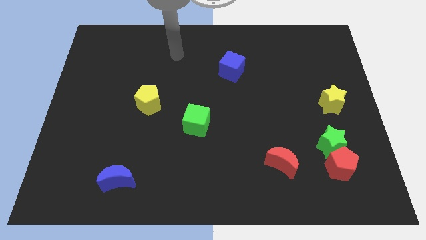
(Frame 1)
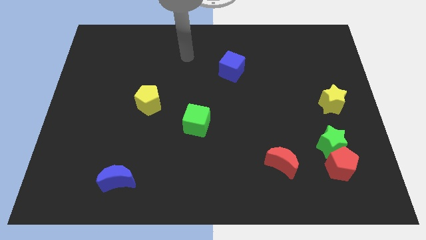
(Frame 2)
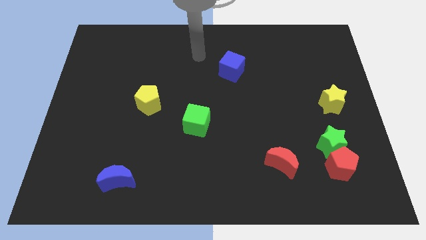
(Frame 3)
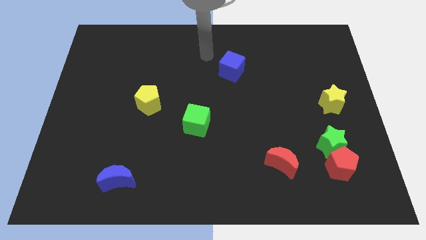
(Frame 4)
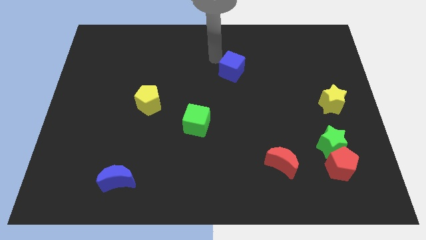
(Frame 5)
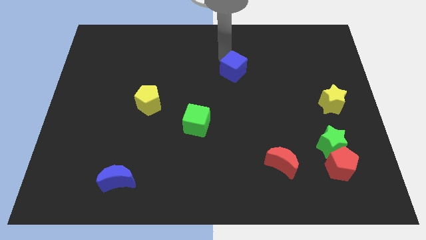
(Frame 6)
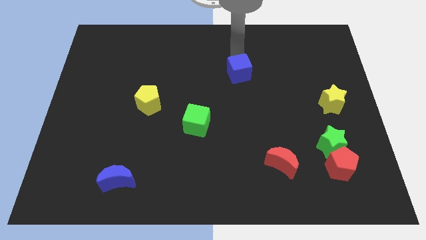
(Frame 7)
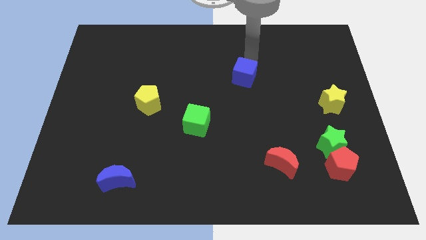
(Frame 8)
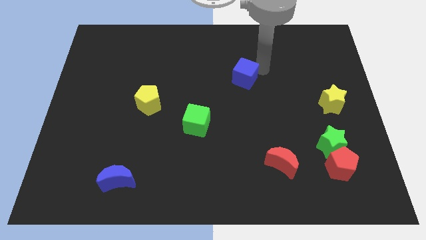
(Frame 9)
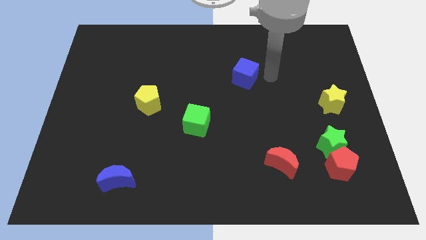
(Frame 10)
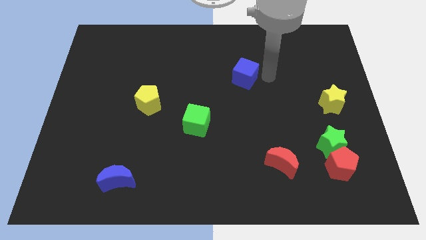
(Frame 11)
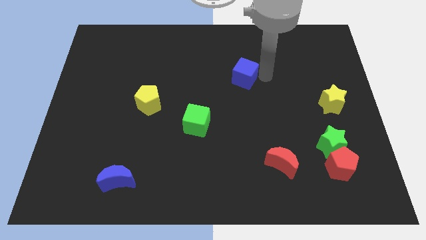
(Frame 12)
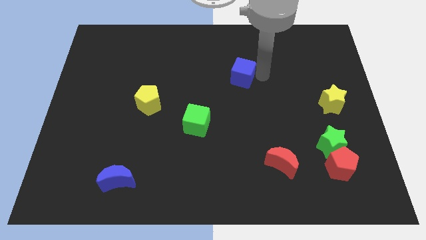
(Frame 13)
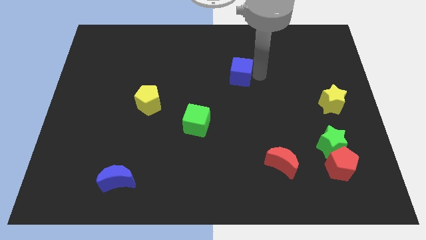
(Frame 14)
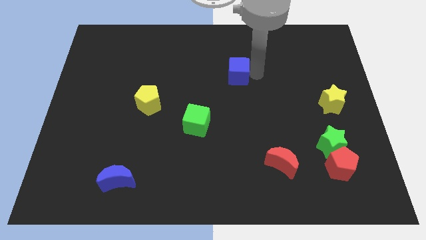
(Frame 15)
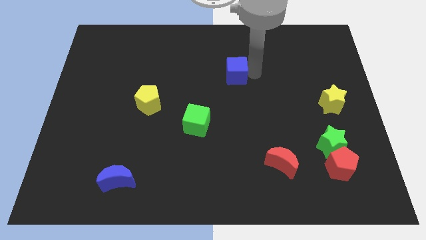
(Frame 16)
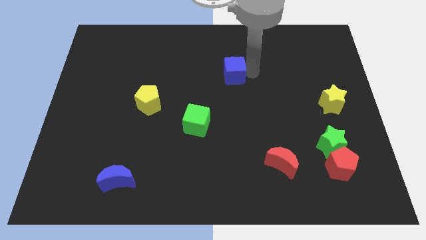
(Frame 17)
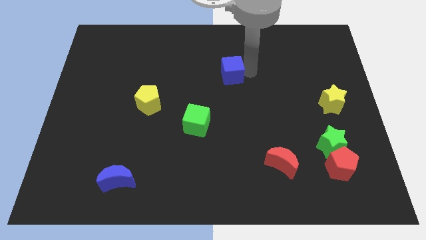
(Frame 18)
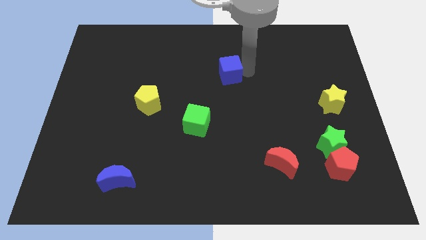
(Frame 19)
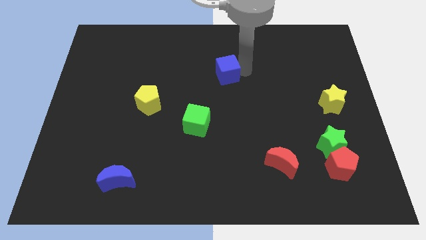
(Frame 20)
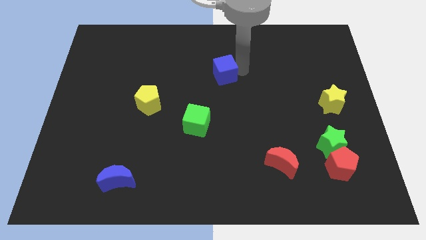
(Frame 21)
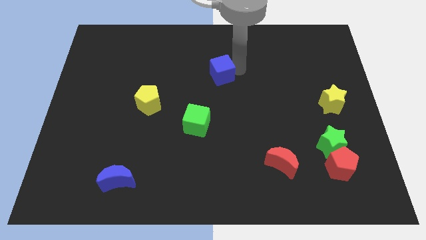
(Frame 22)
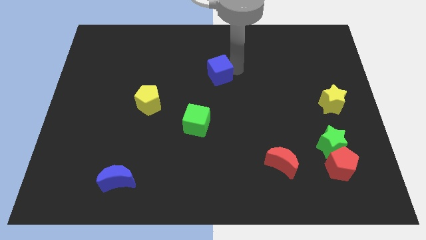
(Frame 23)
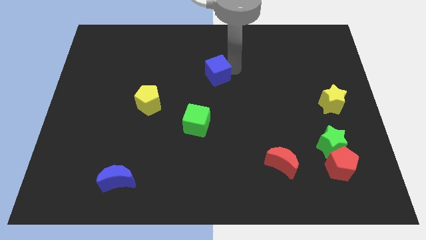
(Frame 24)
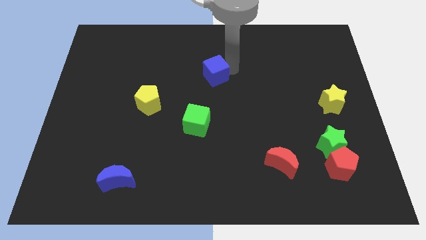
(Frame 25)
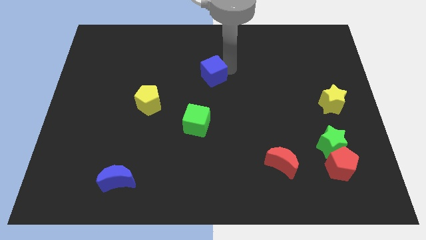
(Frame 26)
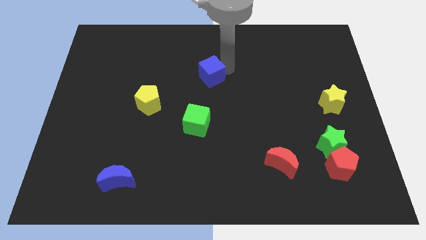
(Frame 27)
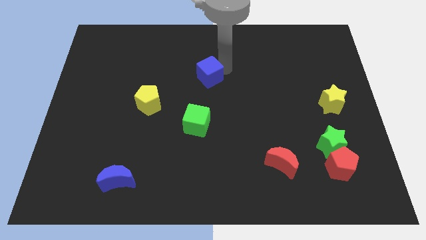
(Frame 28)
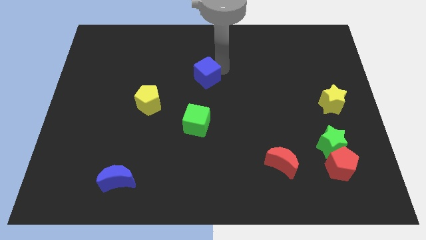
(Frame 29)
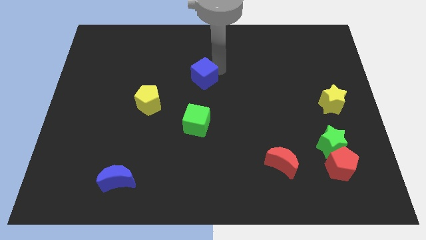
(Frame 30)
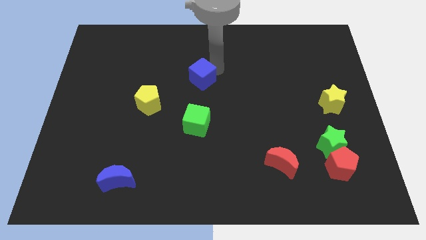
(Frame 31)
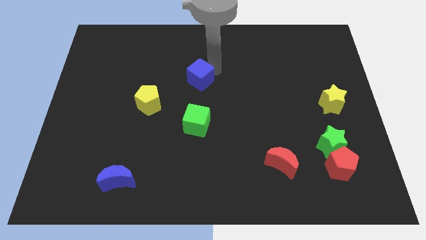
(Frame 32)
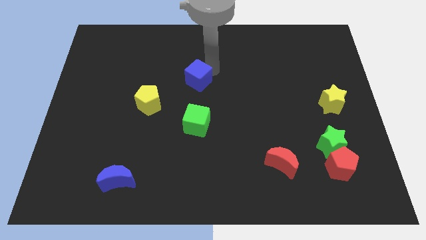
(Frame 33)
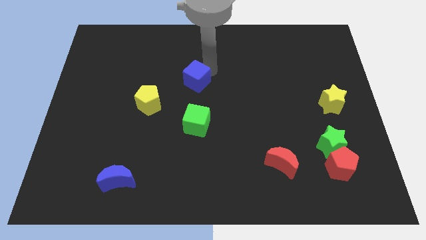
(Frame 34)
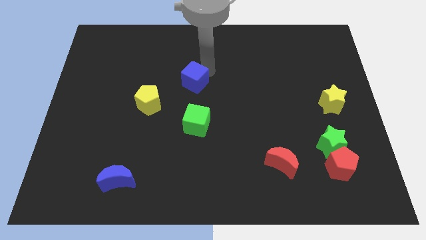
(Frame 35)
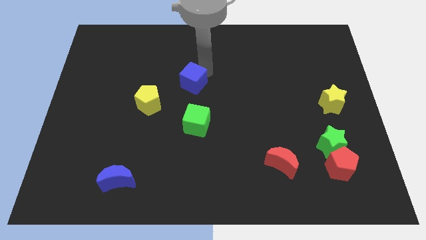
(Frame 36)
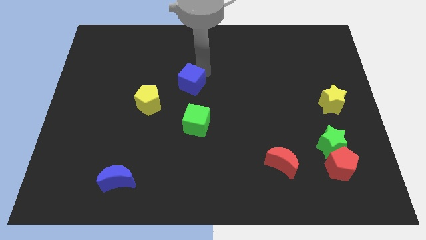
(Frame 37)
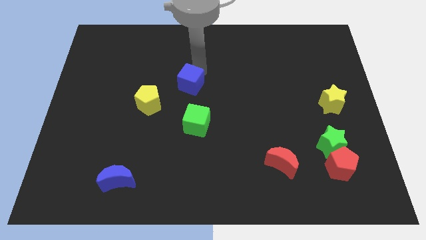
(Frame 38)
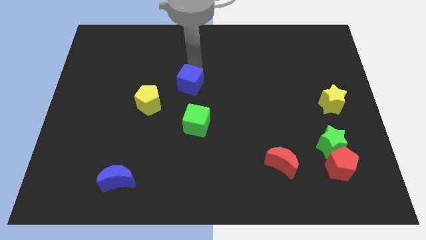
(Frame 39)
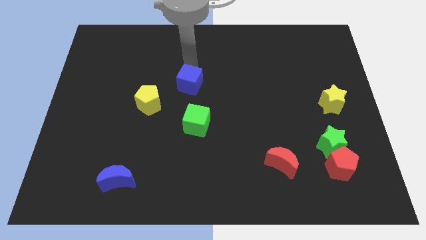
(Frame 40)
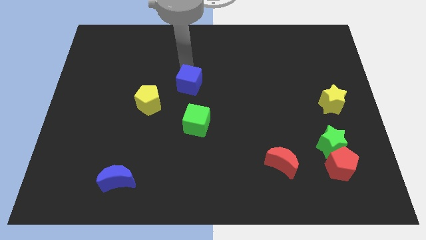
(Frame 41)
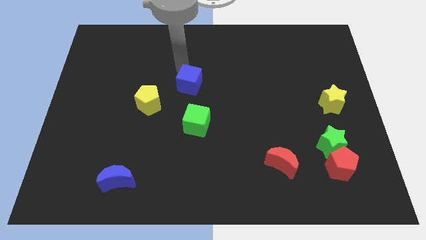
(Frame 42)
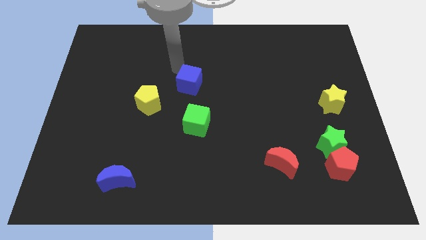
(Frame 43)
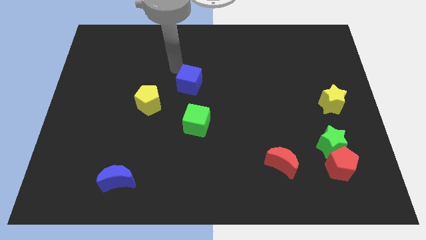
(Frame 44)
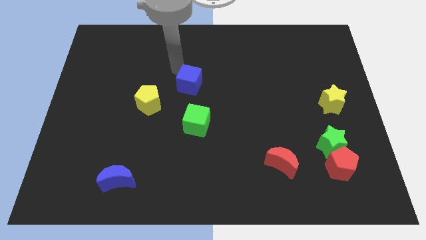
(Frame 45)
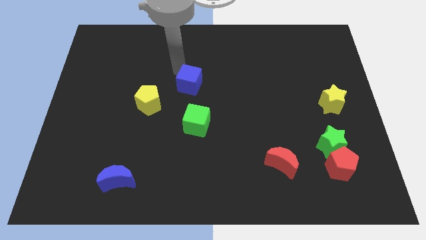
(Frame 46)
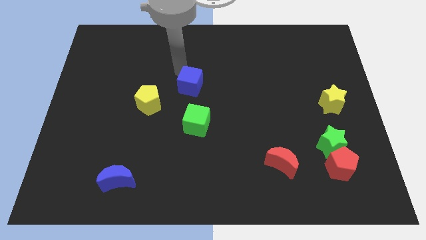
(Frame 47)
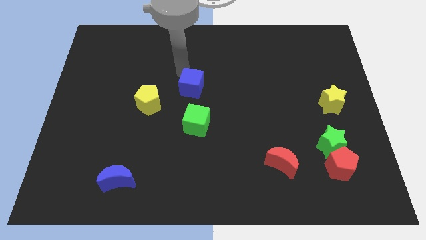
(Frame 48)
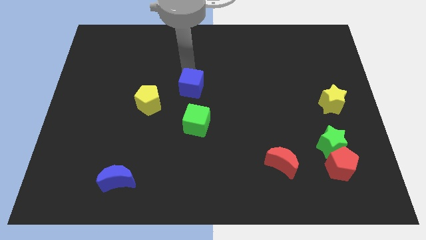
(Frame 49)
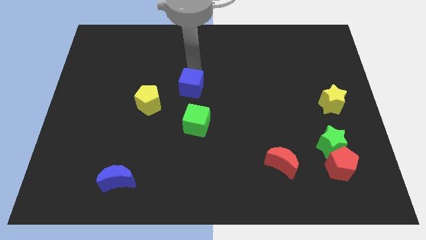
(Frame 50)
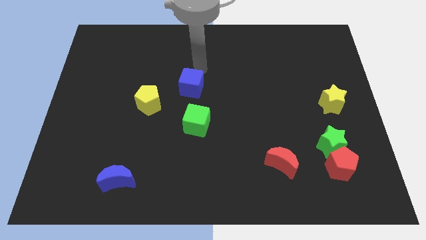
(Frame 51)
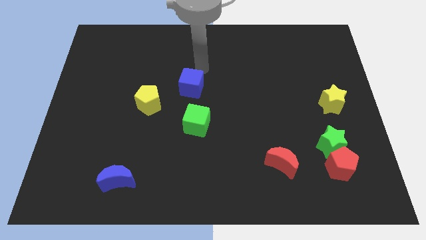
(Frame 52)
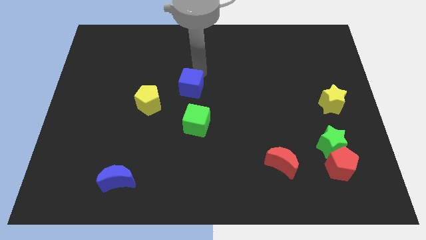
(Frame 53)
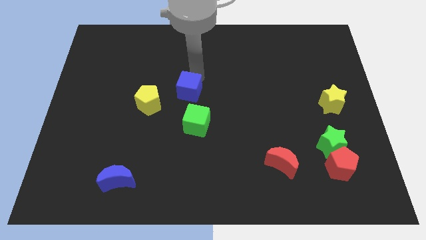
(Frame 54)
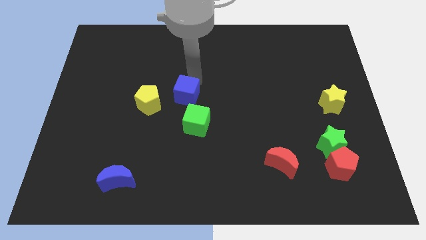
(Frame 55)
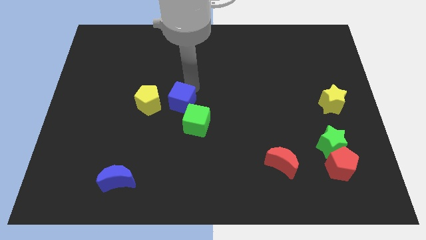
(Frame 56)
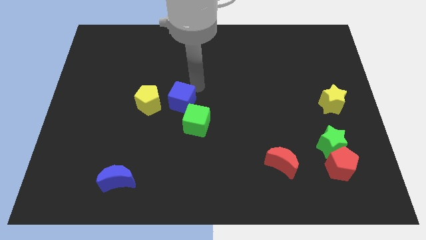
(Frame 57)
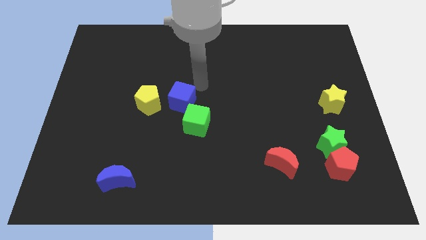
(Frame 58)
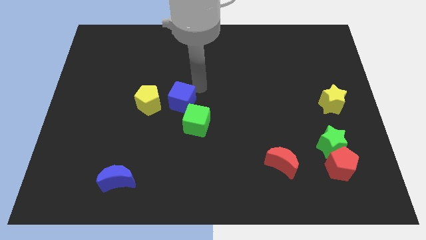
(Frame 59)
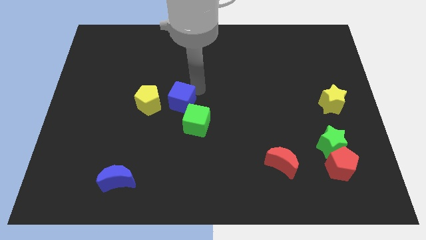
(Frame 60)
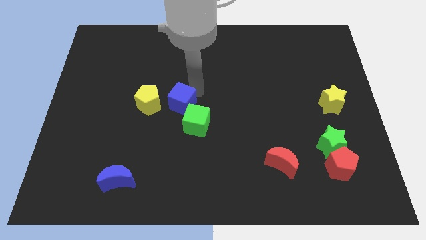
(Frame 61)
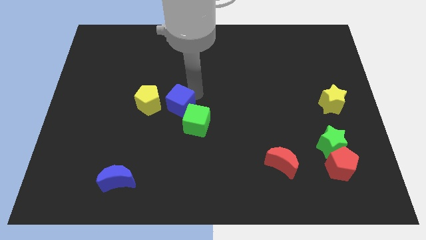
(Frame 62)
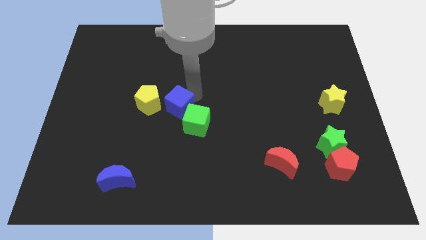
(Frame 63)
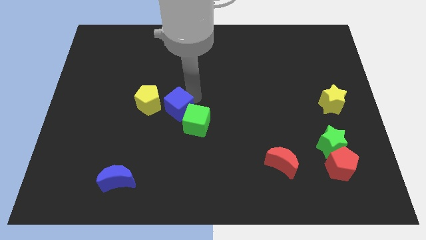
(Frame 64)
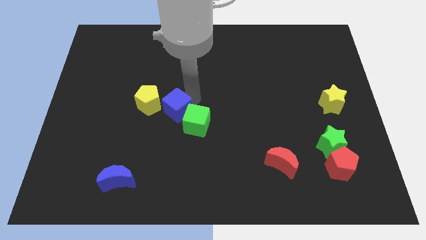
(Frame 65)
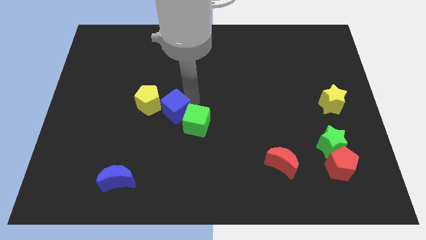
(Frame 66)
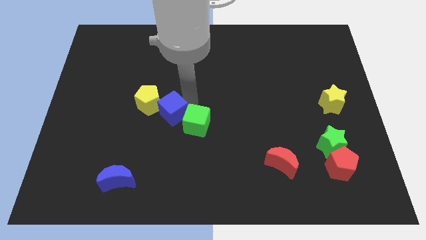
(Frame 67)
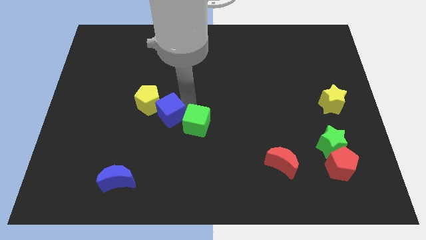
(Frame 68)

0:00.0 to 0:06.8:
slide the blue cube down and to the left

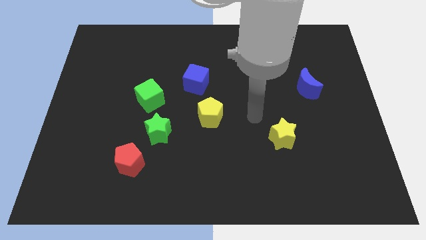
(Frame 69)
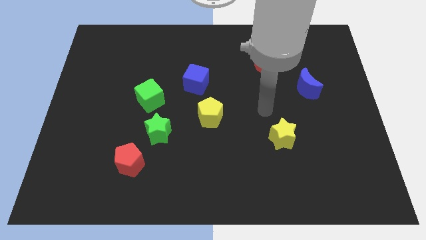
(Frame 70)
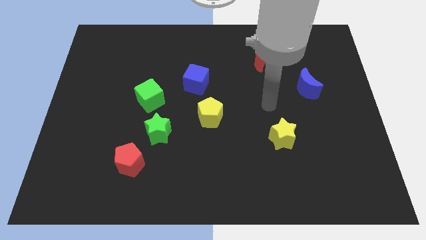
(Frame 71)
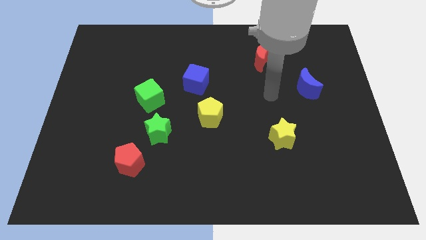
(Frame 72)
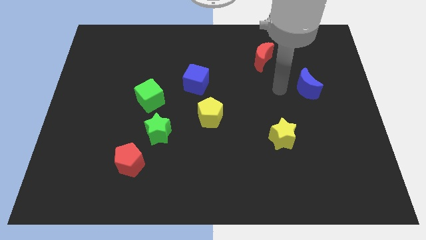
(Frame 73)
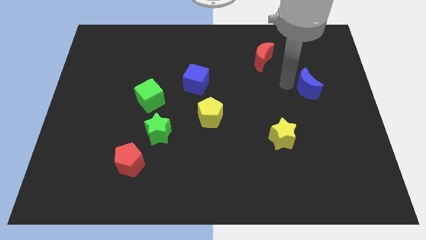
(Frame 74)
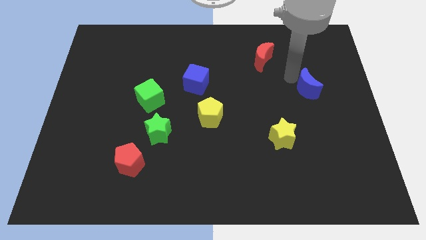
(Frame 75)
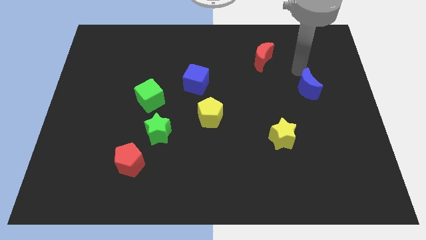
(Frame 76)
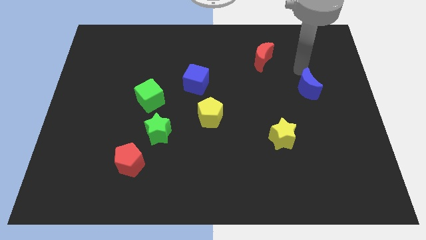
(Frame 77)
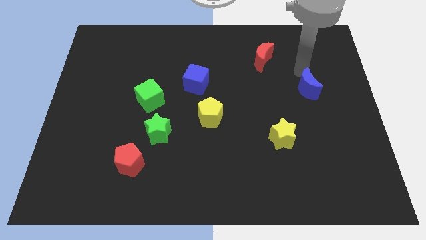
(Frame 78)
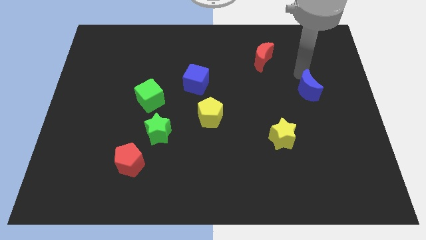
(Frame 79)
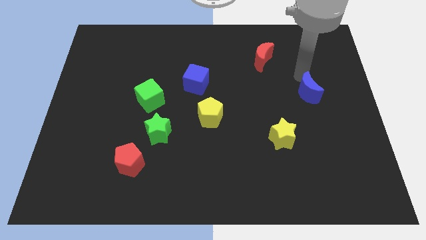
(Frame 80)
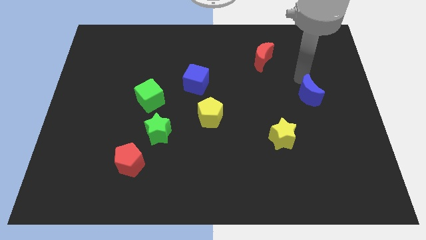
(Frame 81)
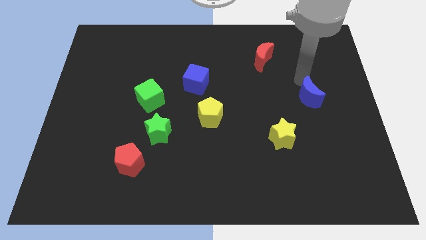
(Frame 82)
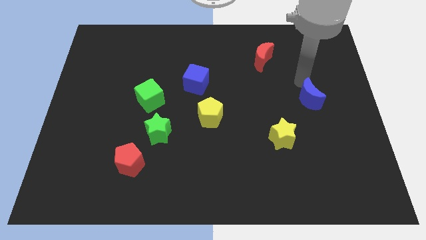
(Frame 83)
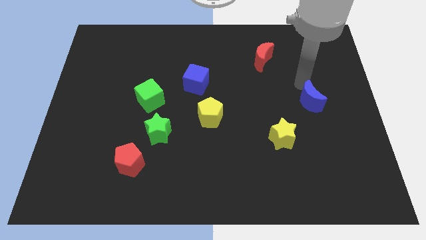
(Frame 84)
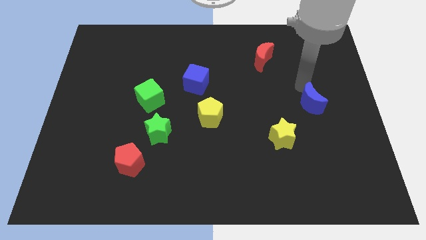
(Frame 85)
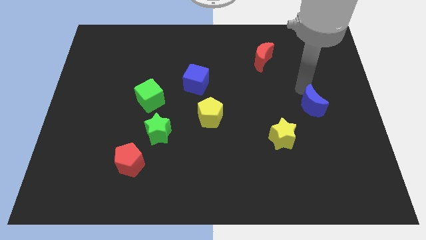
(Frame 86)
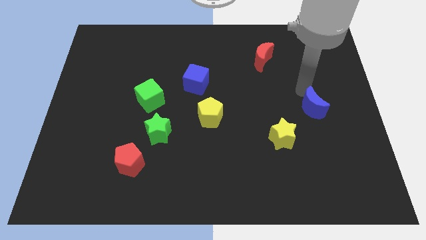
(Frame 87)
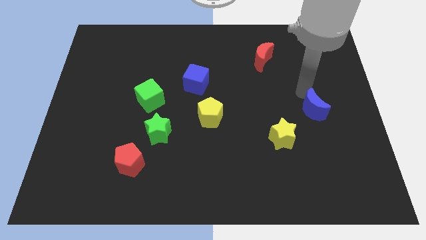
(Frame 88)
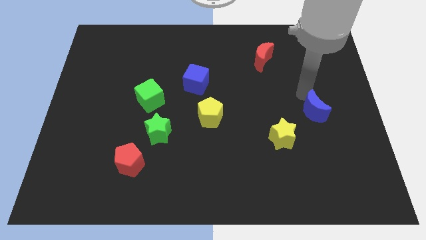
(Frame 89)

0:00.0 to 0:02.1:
slightly slide the blue moon down
